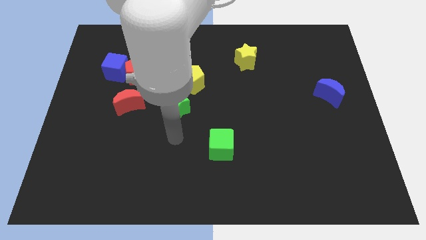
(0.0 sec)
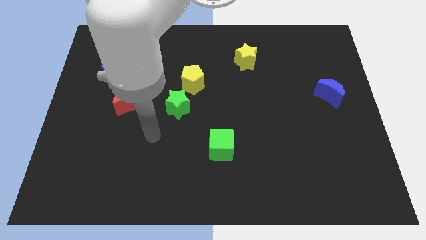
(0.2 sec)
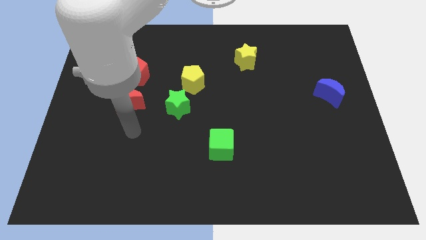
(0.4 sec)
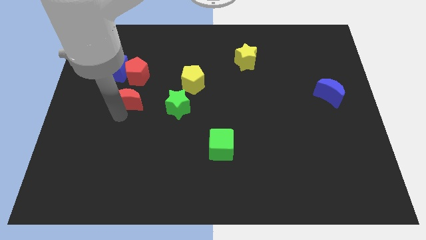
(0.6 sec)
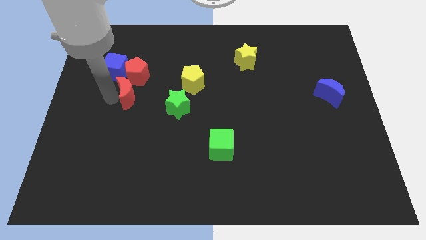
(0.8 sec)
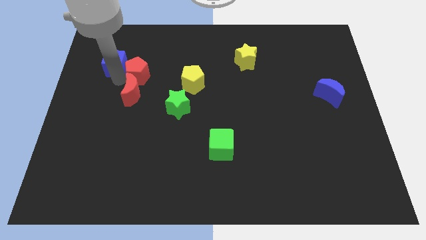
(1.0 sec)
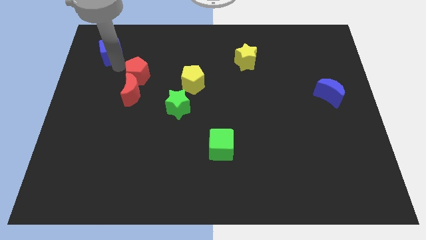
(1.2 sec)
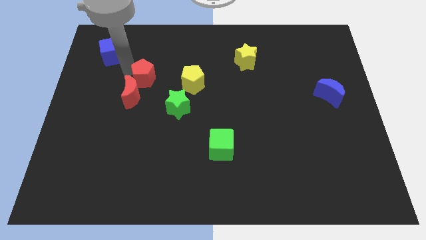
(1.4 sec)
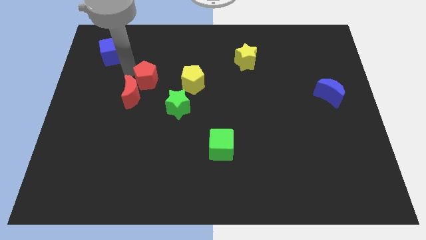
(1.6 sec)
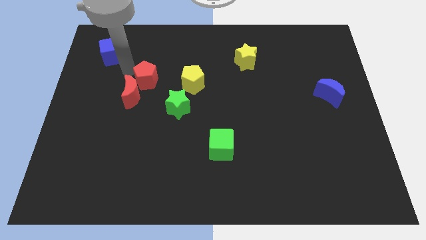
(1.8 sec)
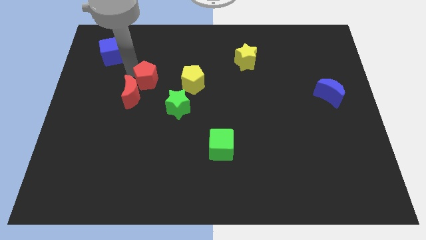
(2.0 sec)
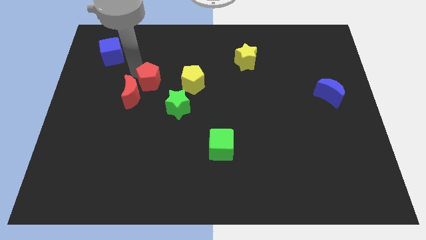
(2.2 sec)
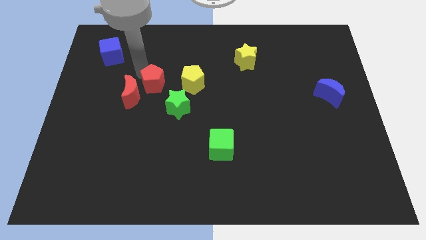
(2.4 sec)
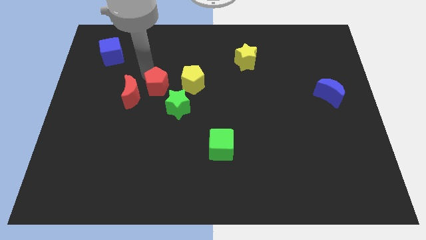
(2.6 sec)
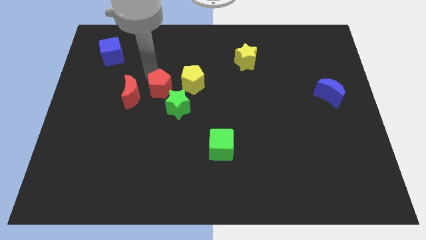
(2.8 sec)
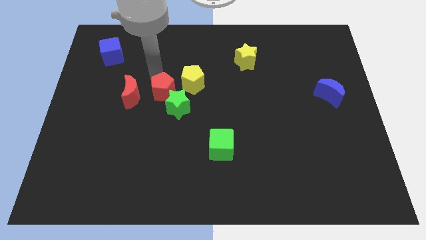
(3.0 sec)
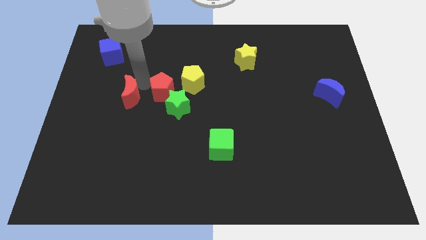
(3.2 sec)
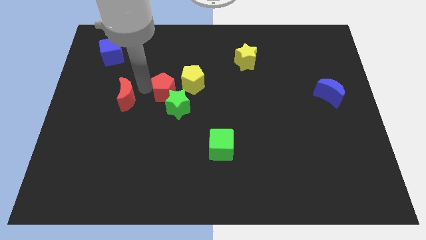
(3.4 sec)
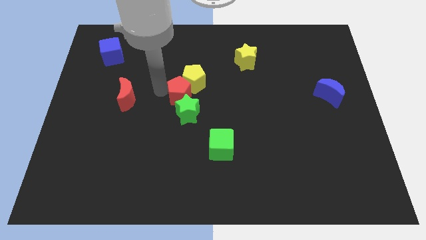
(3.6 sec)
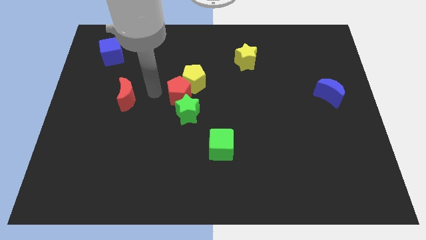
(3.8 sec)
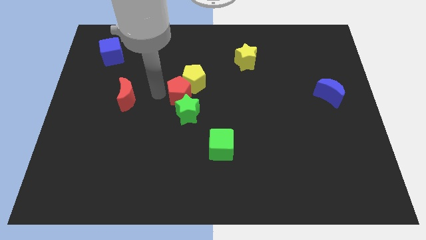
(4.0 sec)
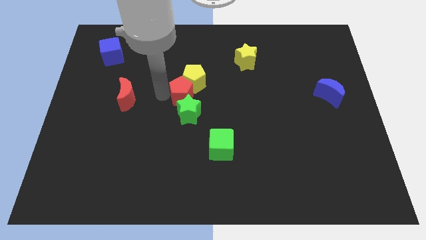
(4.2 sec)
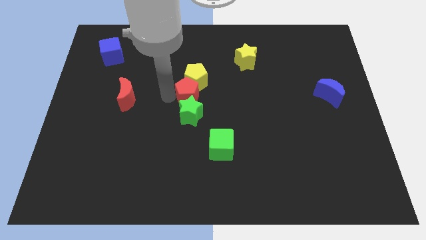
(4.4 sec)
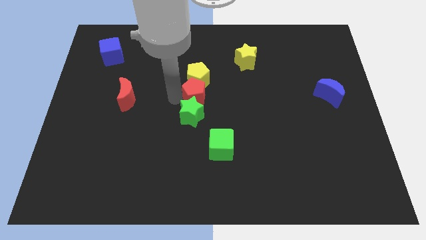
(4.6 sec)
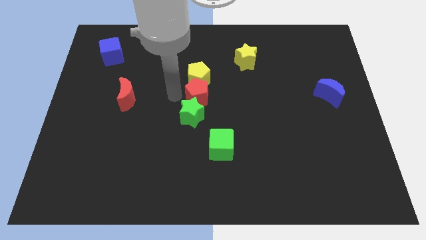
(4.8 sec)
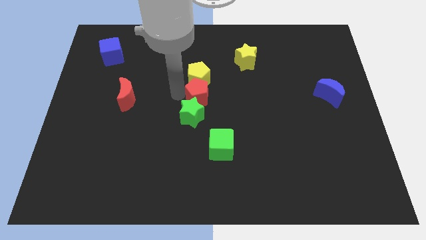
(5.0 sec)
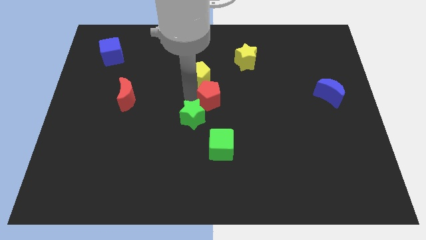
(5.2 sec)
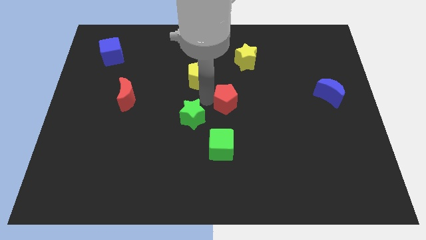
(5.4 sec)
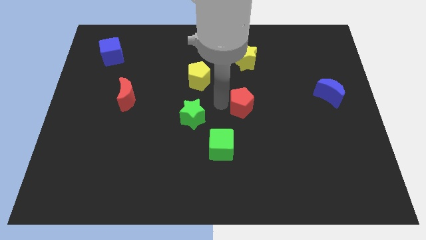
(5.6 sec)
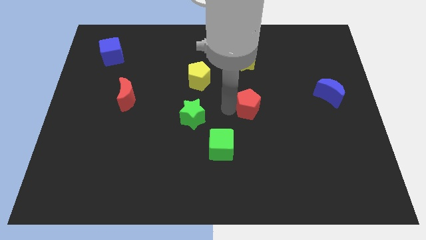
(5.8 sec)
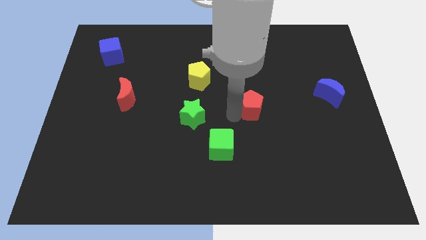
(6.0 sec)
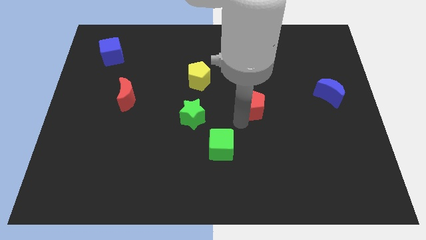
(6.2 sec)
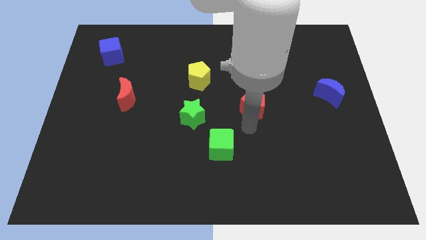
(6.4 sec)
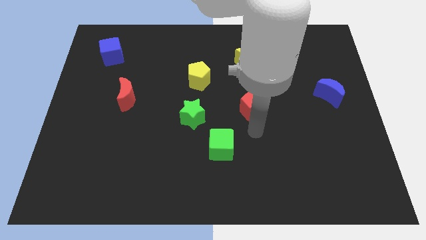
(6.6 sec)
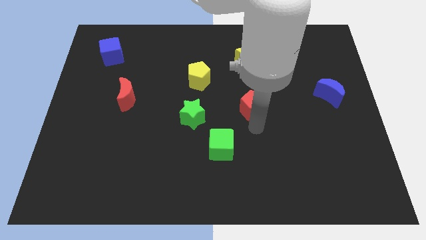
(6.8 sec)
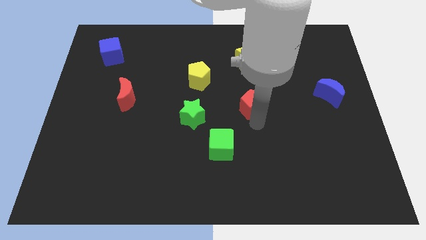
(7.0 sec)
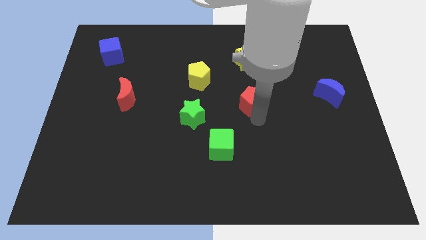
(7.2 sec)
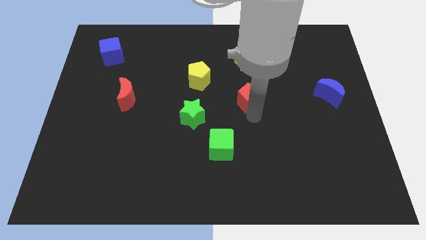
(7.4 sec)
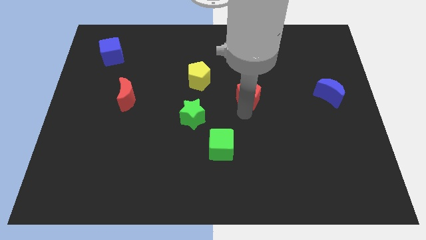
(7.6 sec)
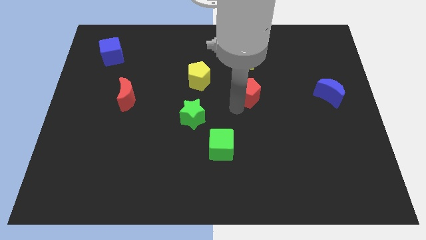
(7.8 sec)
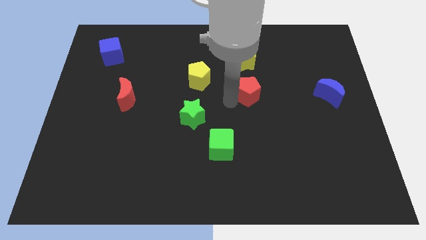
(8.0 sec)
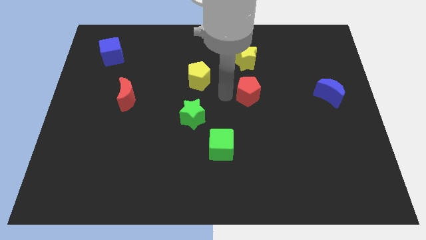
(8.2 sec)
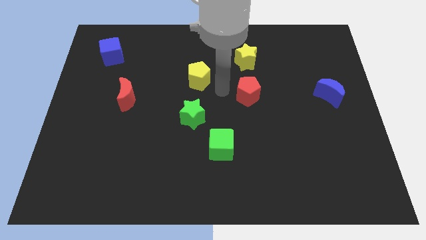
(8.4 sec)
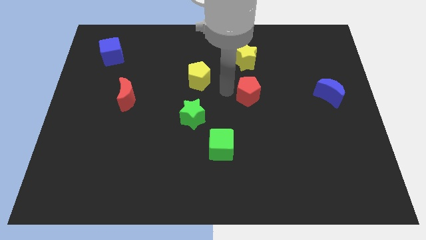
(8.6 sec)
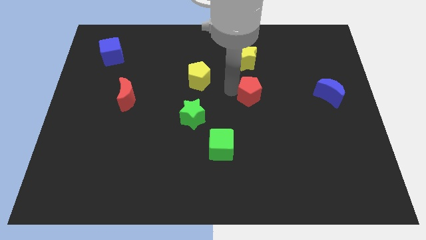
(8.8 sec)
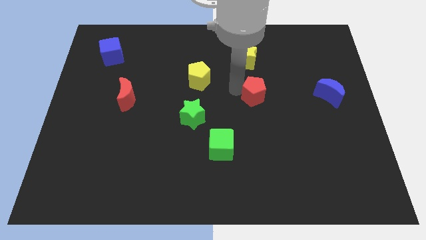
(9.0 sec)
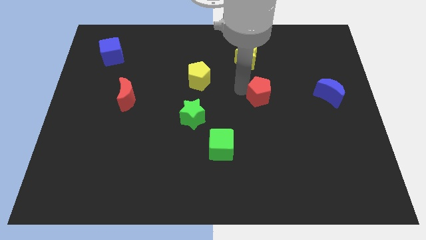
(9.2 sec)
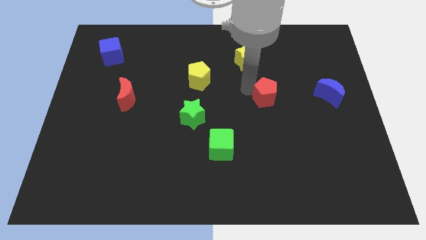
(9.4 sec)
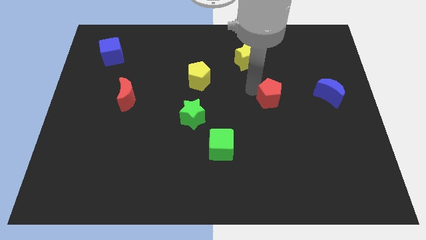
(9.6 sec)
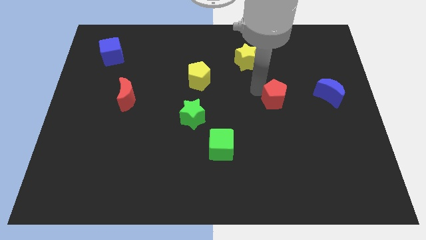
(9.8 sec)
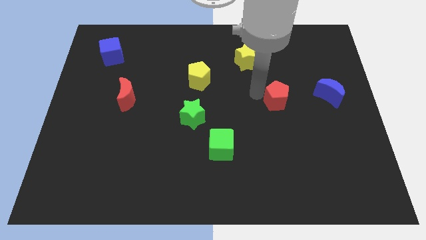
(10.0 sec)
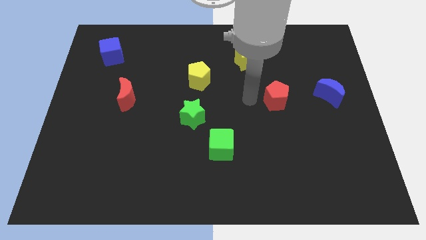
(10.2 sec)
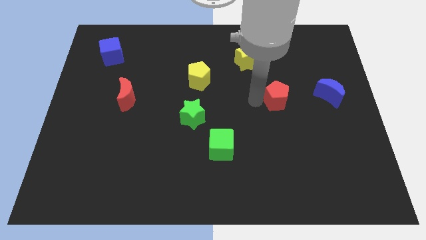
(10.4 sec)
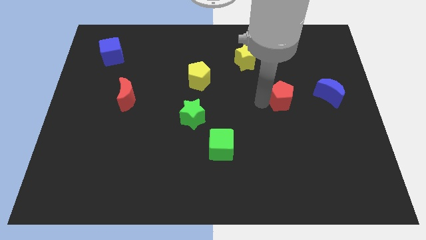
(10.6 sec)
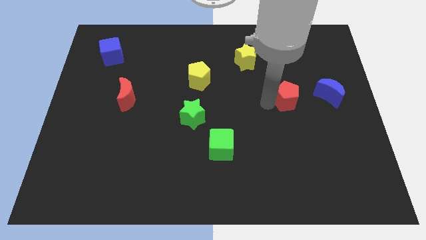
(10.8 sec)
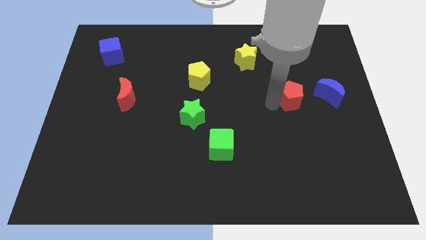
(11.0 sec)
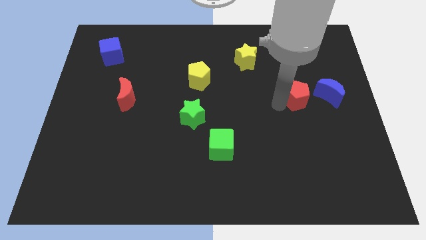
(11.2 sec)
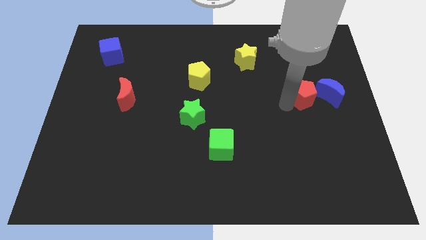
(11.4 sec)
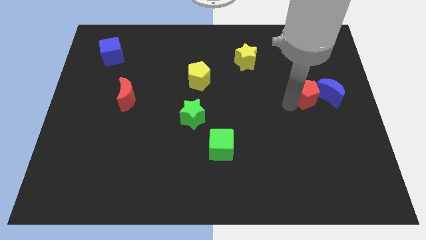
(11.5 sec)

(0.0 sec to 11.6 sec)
move the red pentagon close to the blue moon
